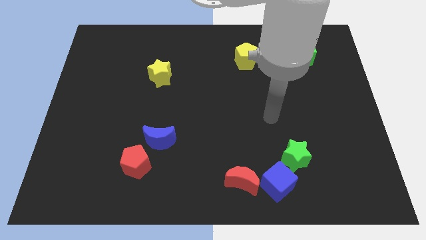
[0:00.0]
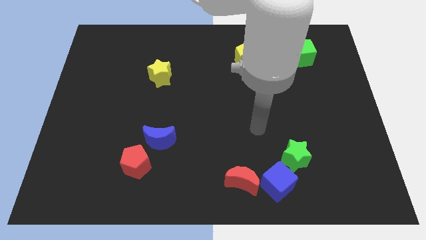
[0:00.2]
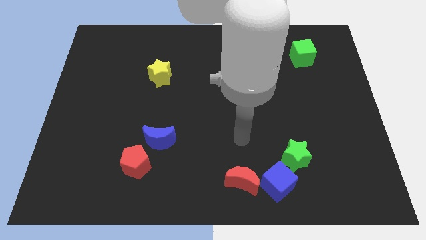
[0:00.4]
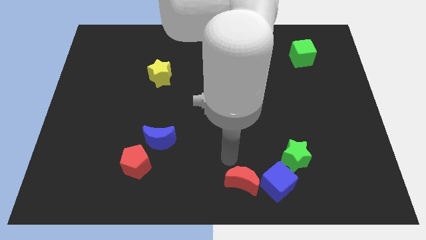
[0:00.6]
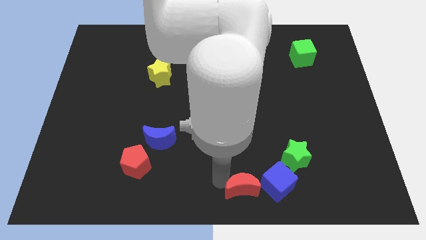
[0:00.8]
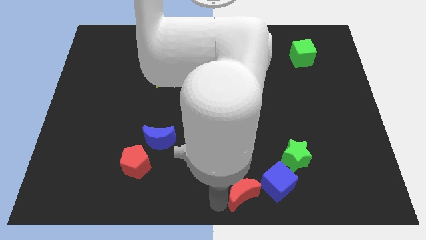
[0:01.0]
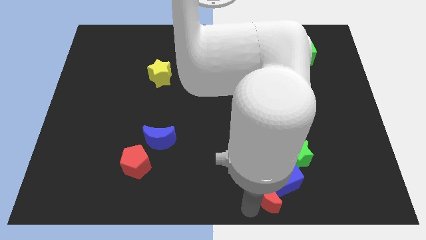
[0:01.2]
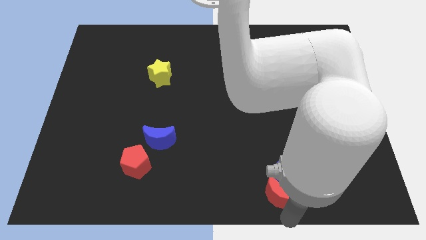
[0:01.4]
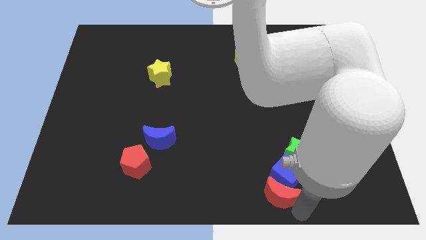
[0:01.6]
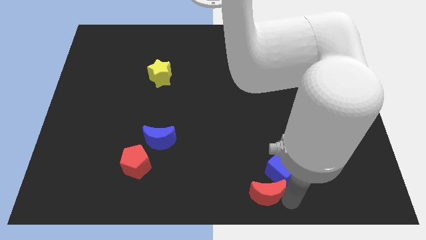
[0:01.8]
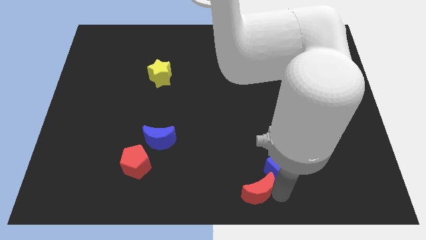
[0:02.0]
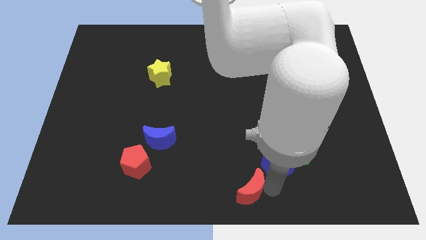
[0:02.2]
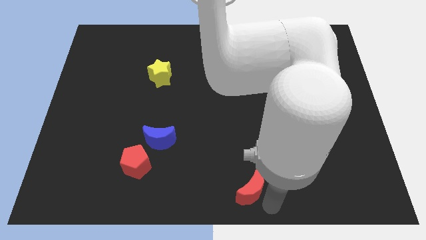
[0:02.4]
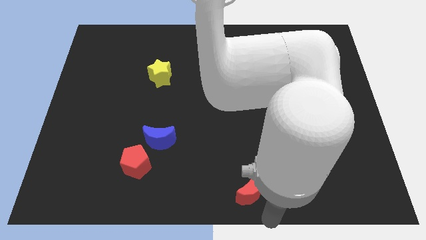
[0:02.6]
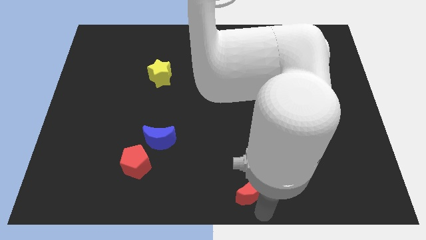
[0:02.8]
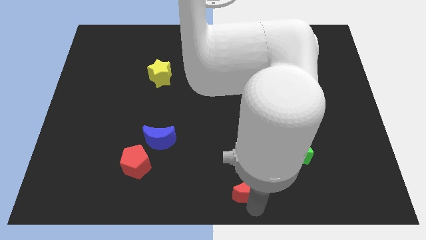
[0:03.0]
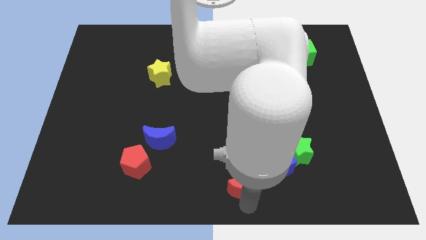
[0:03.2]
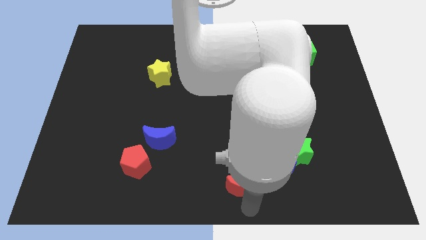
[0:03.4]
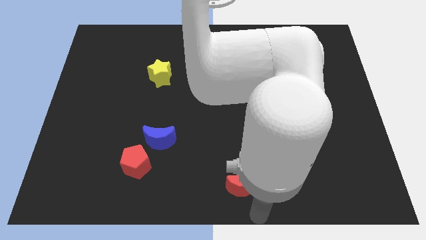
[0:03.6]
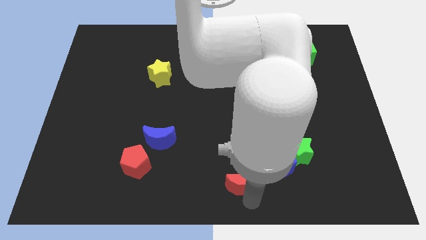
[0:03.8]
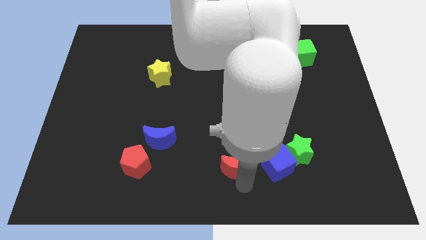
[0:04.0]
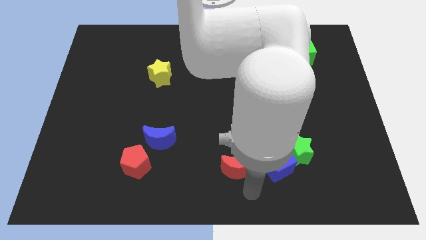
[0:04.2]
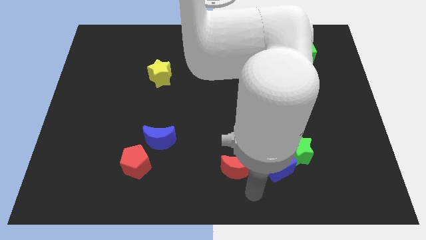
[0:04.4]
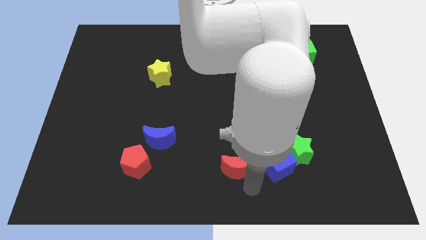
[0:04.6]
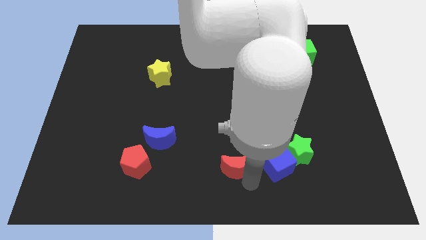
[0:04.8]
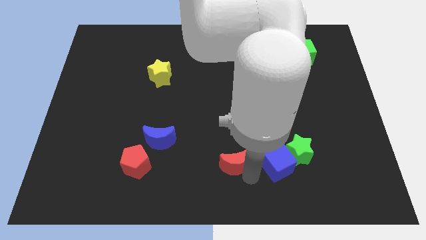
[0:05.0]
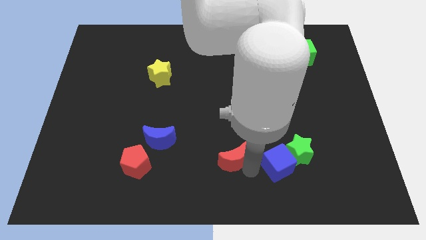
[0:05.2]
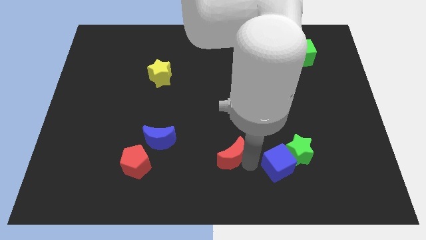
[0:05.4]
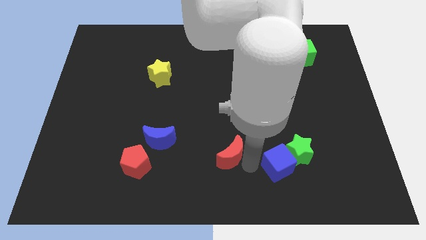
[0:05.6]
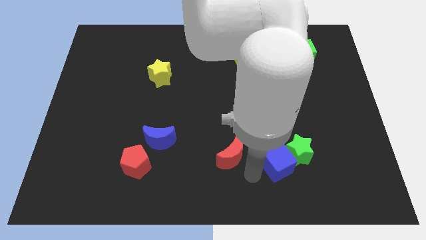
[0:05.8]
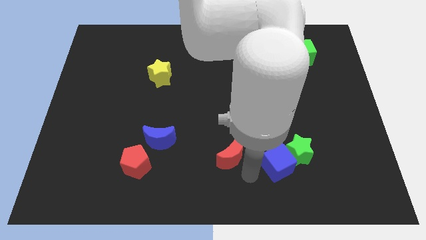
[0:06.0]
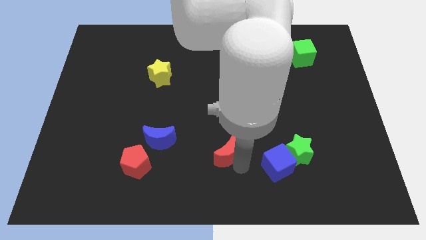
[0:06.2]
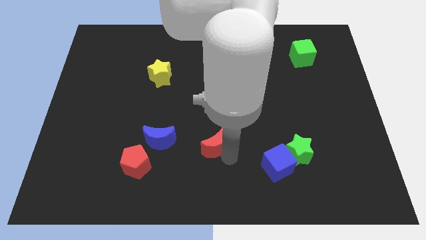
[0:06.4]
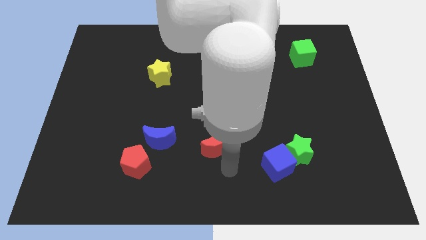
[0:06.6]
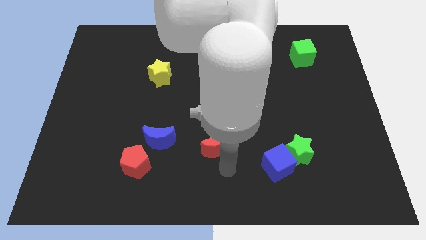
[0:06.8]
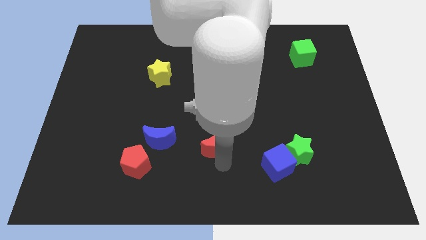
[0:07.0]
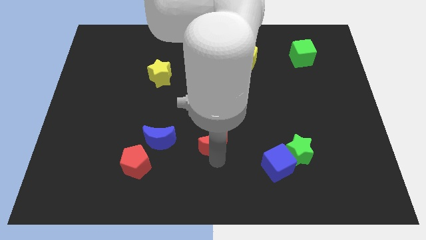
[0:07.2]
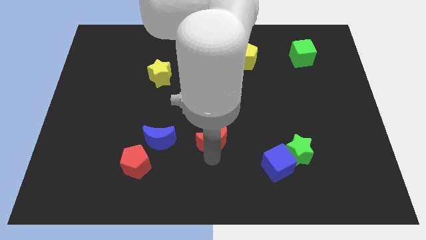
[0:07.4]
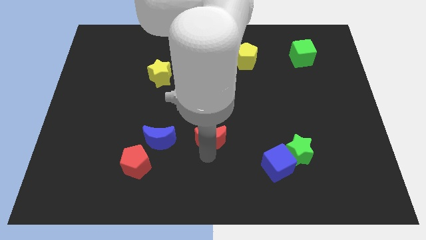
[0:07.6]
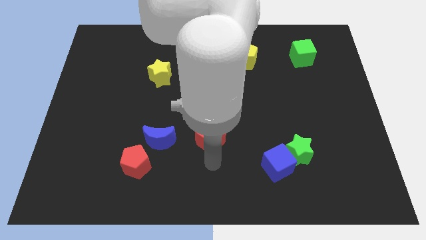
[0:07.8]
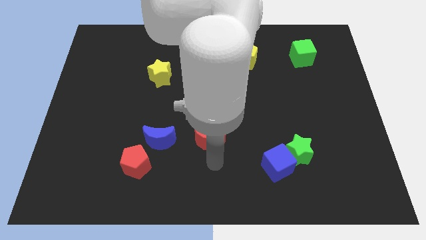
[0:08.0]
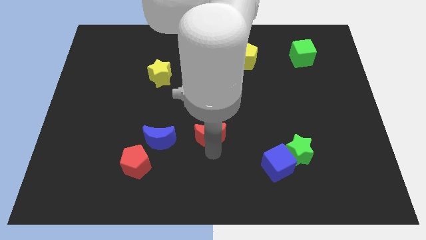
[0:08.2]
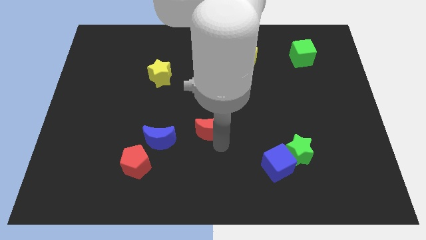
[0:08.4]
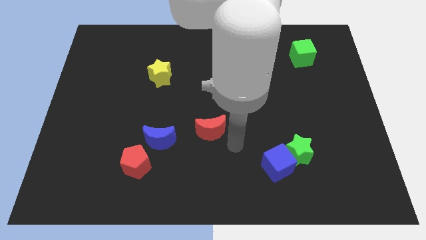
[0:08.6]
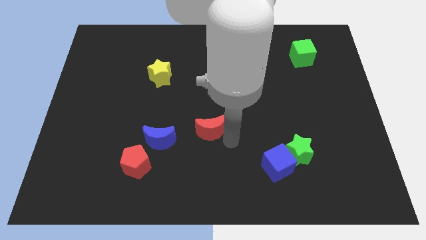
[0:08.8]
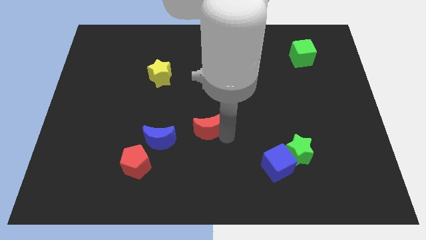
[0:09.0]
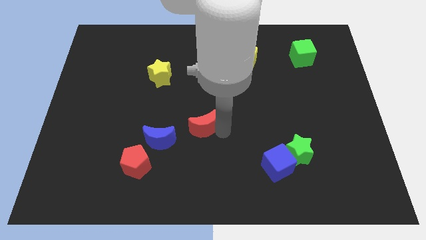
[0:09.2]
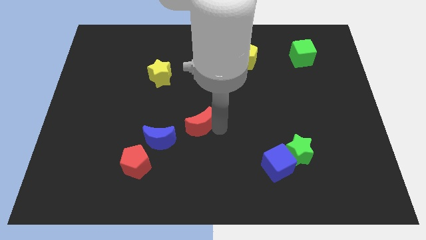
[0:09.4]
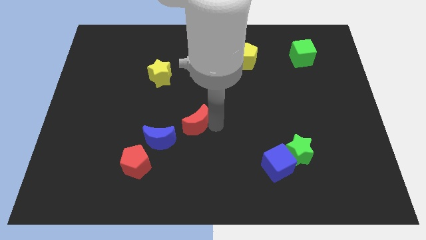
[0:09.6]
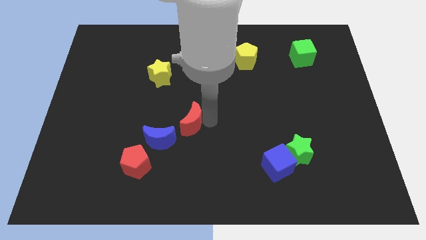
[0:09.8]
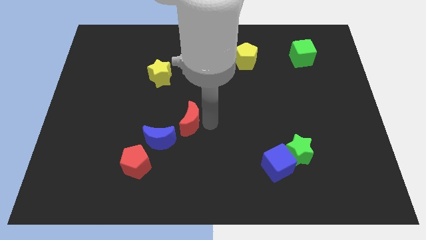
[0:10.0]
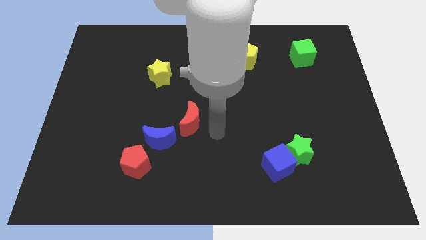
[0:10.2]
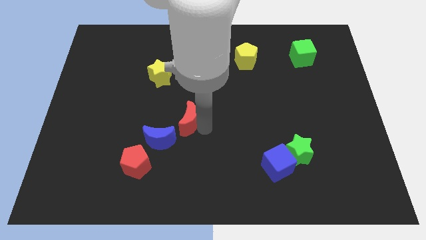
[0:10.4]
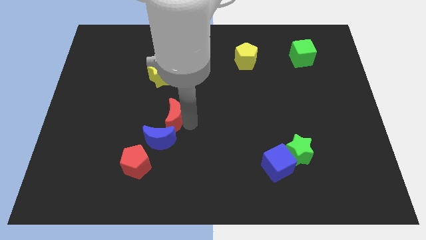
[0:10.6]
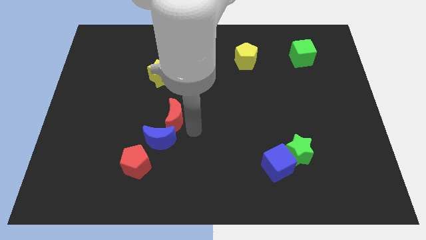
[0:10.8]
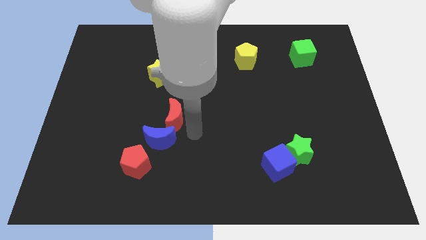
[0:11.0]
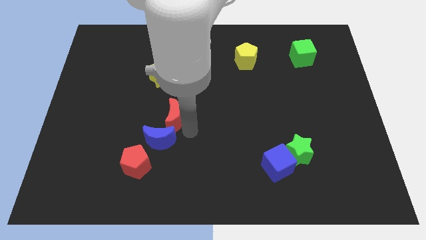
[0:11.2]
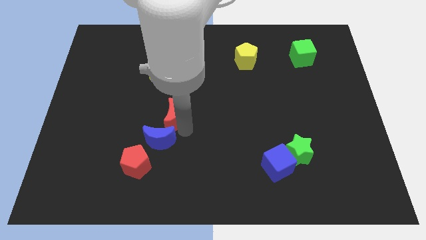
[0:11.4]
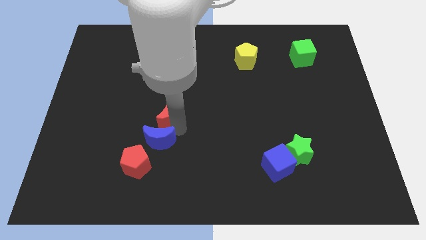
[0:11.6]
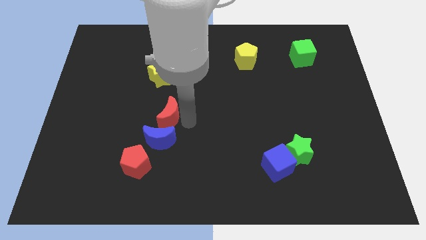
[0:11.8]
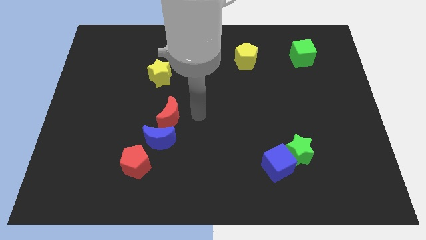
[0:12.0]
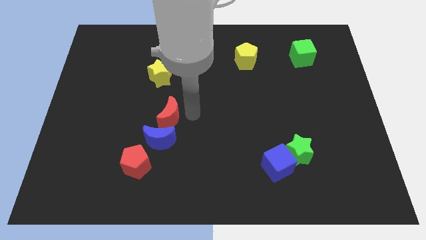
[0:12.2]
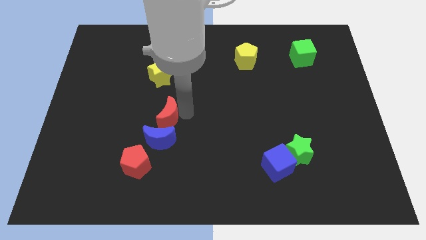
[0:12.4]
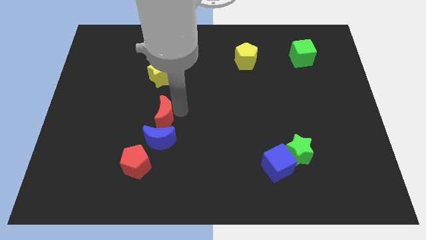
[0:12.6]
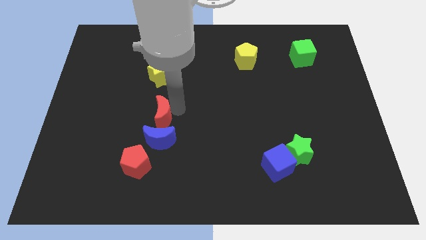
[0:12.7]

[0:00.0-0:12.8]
slide the red moon to the top left side of the blue moon
